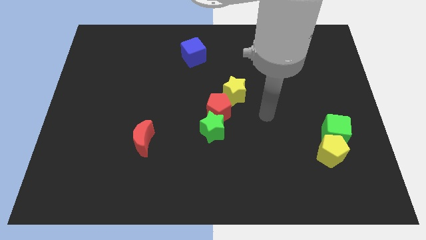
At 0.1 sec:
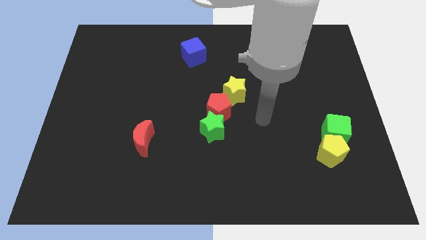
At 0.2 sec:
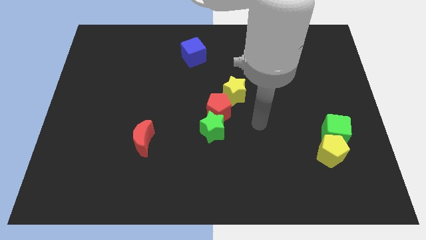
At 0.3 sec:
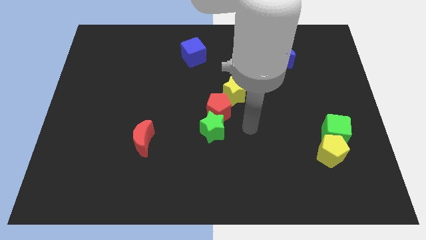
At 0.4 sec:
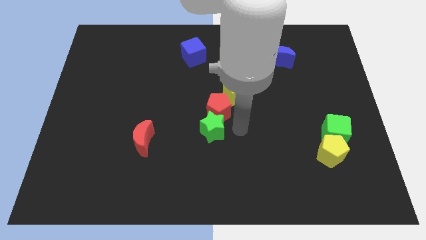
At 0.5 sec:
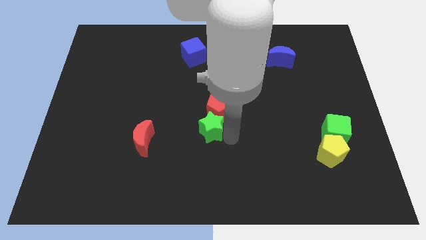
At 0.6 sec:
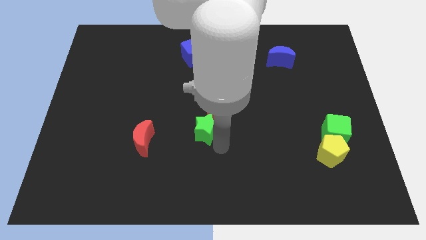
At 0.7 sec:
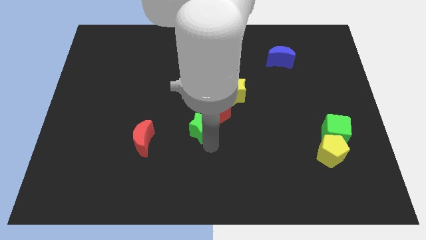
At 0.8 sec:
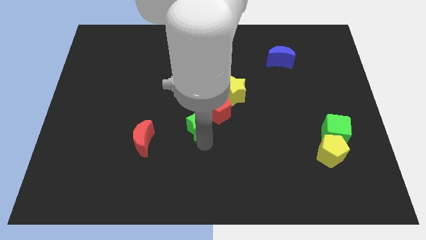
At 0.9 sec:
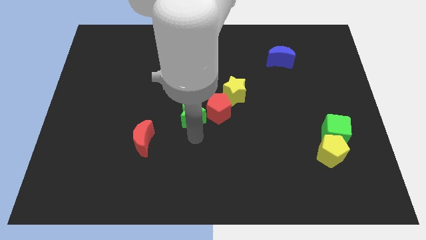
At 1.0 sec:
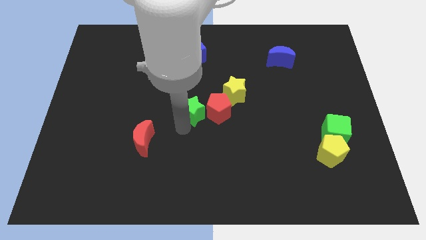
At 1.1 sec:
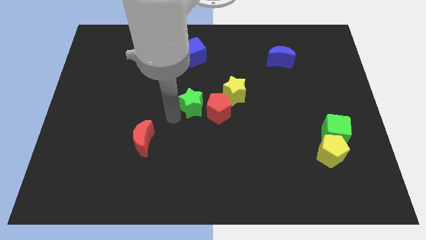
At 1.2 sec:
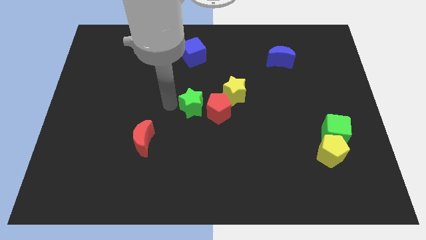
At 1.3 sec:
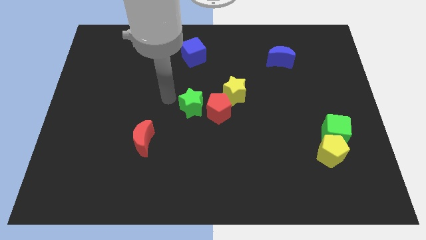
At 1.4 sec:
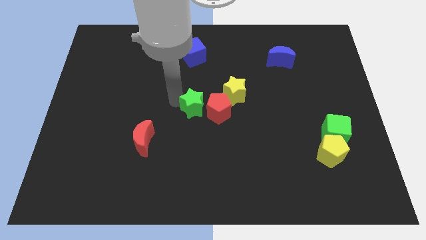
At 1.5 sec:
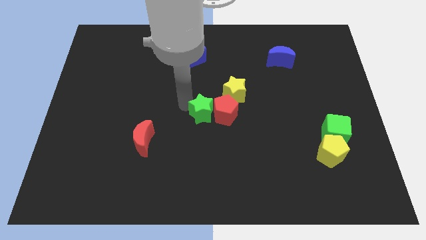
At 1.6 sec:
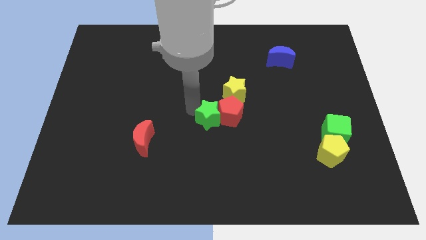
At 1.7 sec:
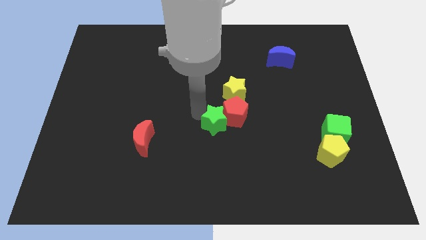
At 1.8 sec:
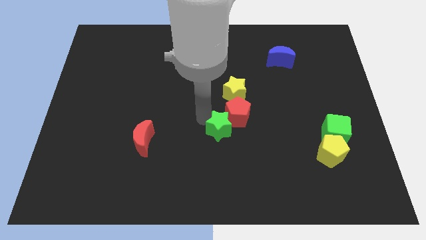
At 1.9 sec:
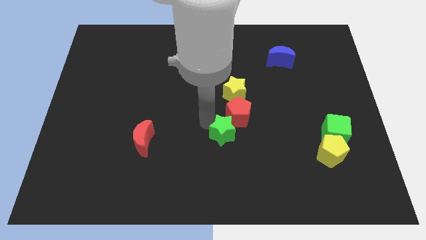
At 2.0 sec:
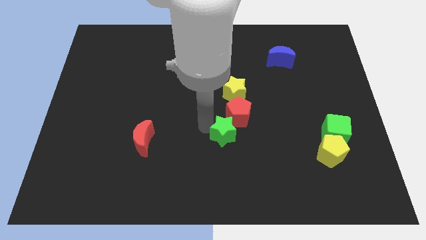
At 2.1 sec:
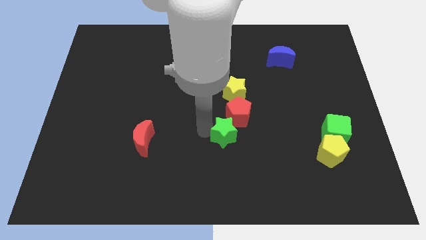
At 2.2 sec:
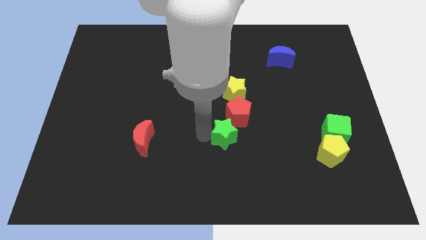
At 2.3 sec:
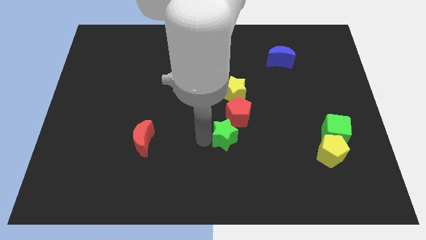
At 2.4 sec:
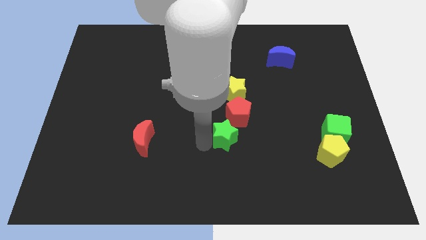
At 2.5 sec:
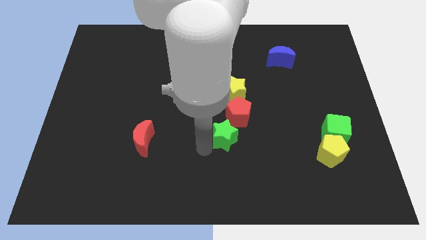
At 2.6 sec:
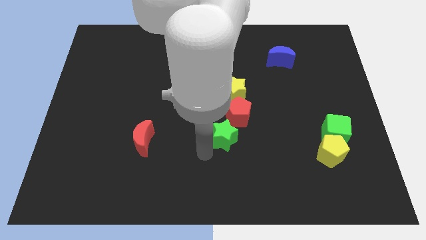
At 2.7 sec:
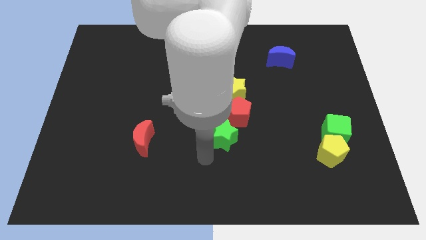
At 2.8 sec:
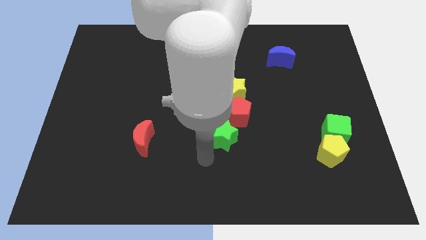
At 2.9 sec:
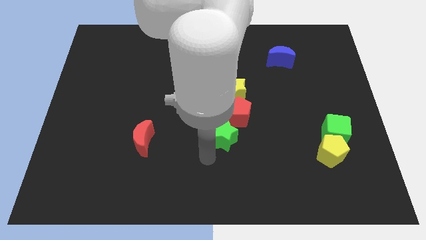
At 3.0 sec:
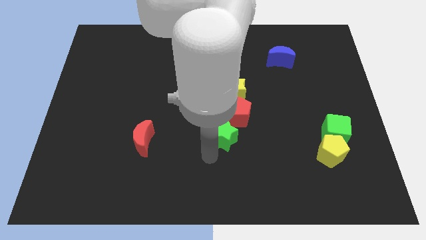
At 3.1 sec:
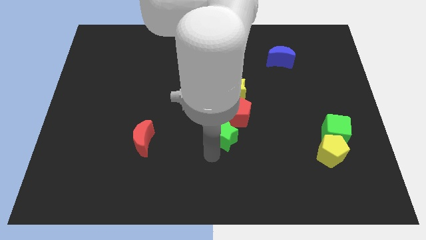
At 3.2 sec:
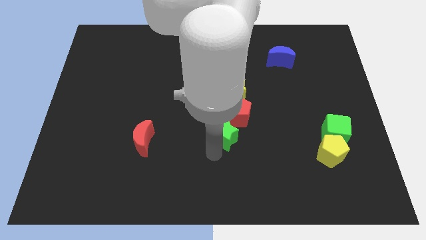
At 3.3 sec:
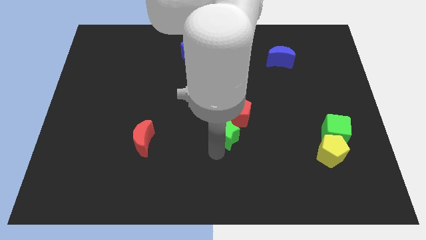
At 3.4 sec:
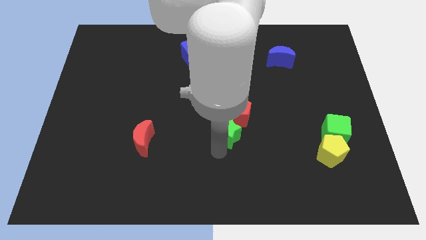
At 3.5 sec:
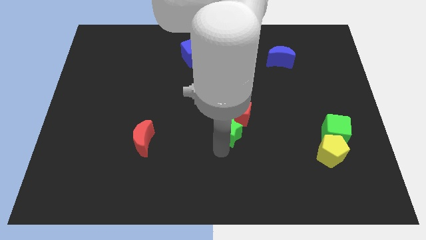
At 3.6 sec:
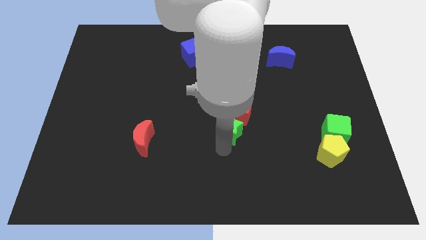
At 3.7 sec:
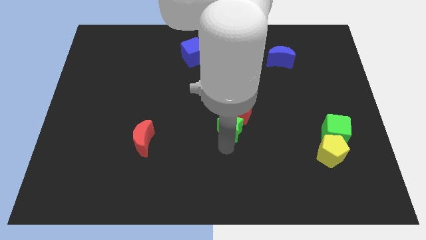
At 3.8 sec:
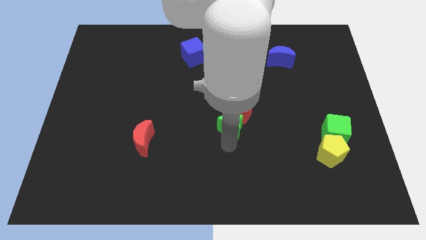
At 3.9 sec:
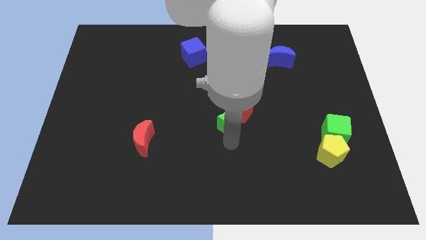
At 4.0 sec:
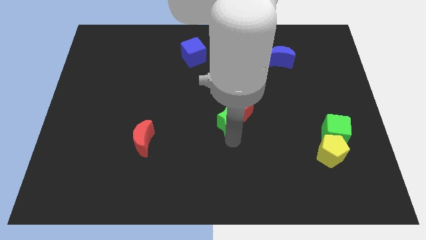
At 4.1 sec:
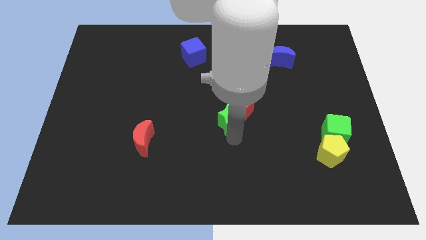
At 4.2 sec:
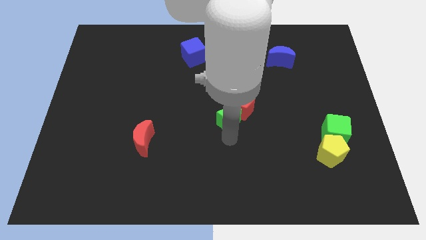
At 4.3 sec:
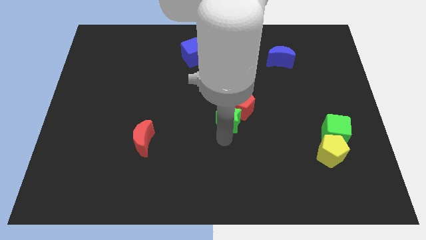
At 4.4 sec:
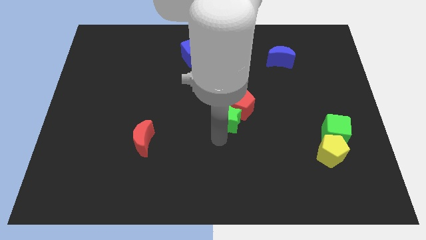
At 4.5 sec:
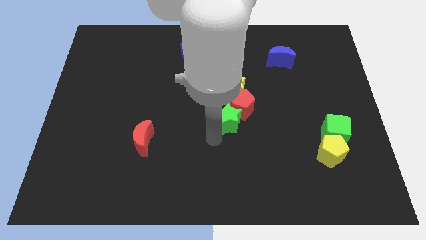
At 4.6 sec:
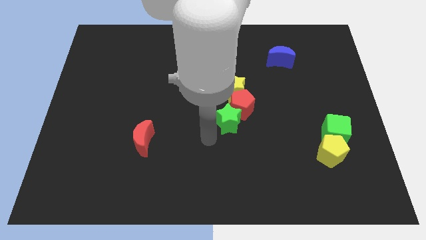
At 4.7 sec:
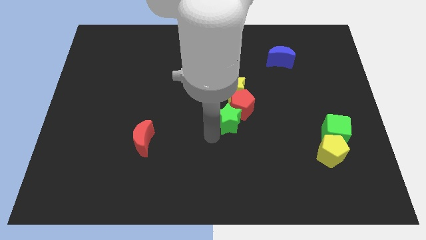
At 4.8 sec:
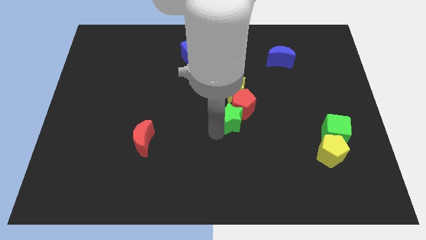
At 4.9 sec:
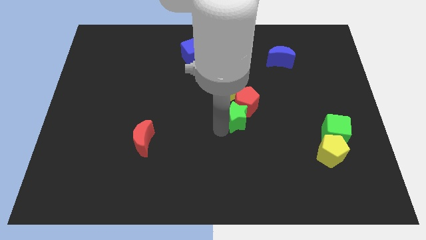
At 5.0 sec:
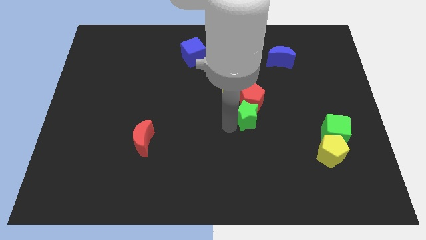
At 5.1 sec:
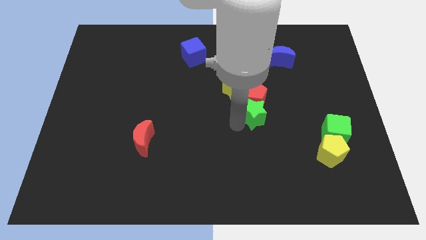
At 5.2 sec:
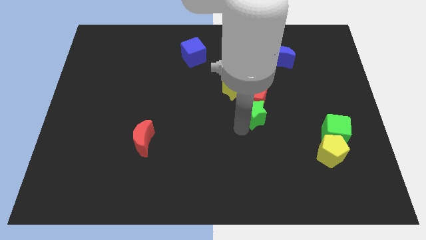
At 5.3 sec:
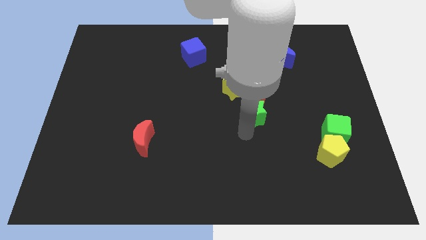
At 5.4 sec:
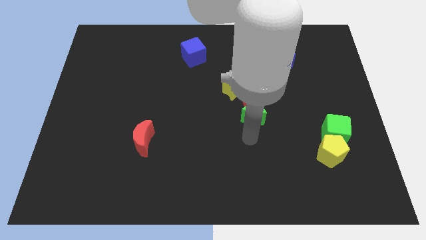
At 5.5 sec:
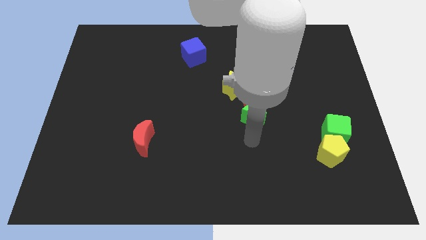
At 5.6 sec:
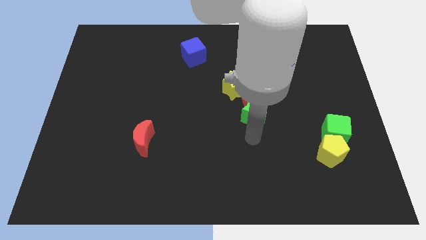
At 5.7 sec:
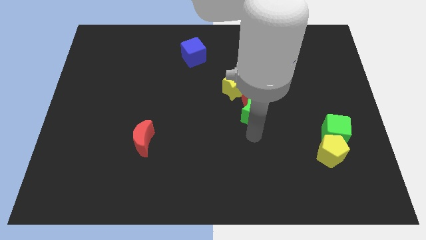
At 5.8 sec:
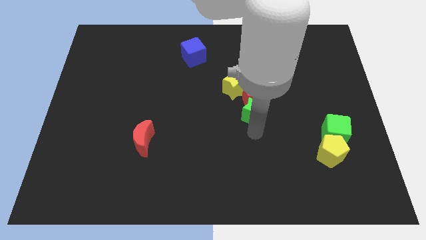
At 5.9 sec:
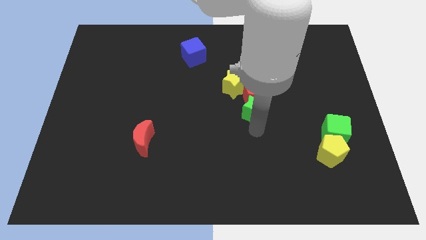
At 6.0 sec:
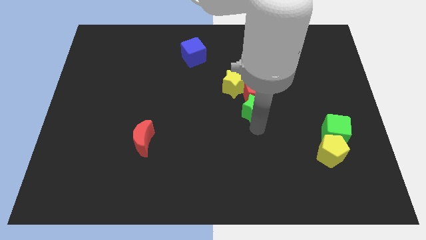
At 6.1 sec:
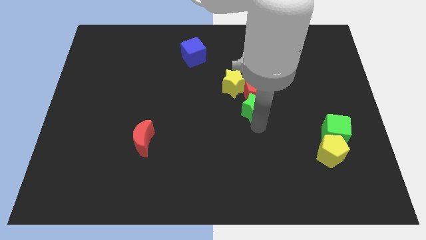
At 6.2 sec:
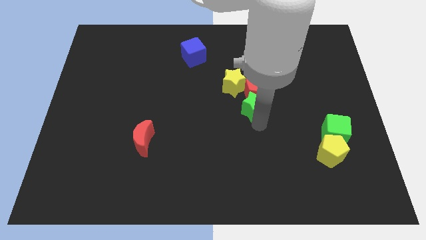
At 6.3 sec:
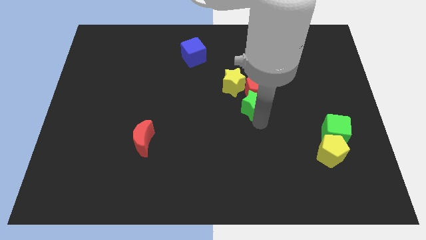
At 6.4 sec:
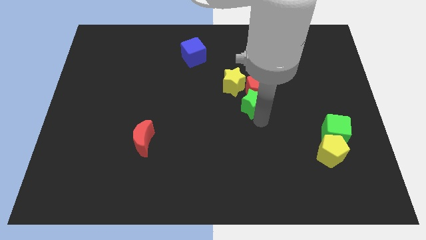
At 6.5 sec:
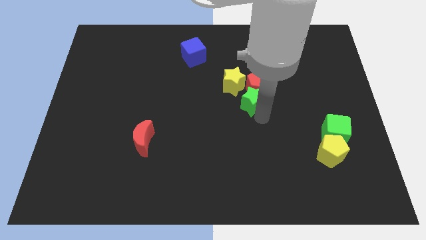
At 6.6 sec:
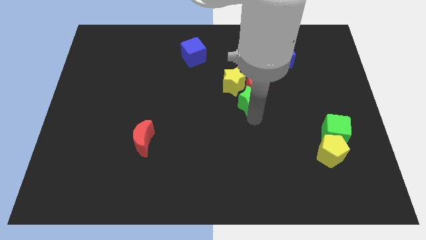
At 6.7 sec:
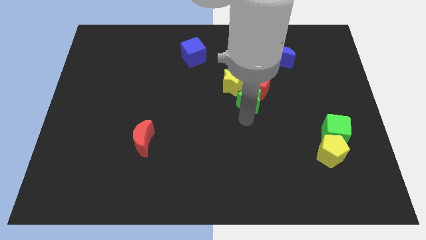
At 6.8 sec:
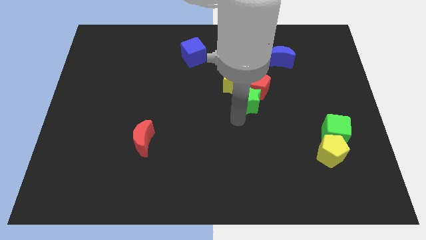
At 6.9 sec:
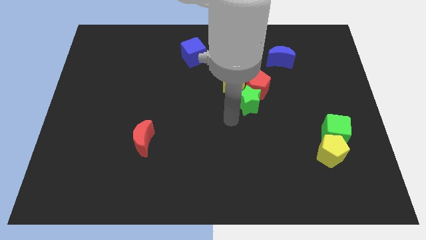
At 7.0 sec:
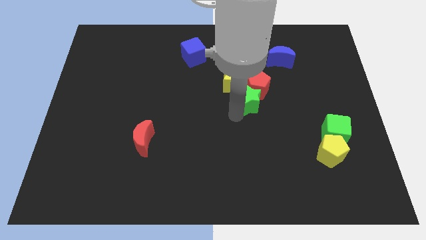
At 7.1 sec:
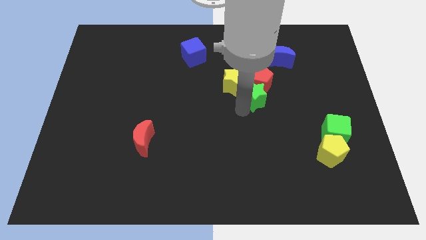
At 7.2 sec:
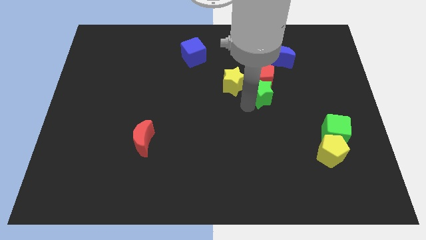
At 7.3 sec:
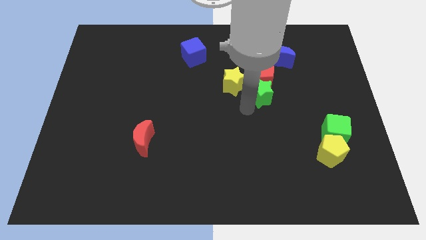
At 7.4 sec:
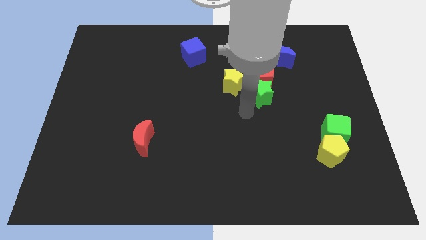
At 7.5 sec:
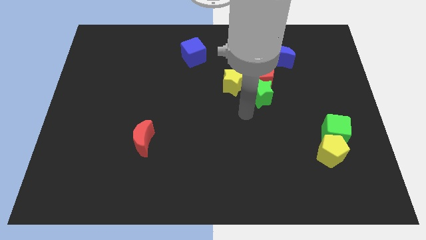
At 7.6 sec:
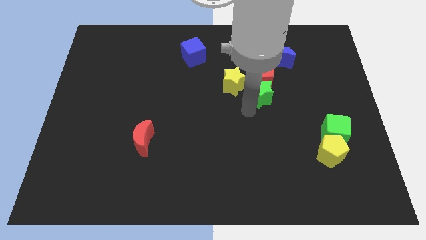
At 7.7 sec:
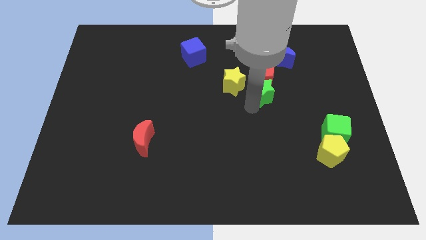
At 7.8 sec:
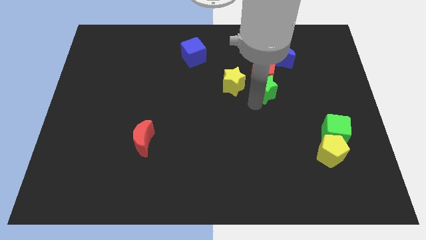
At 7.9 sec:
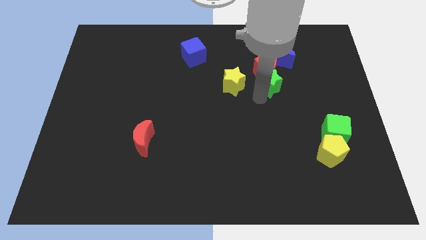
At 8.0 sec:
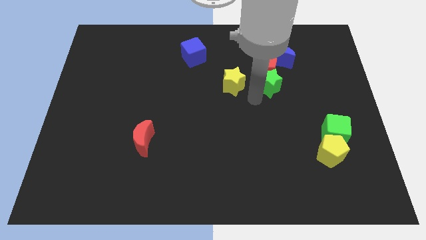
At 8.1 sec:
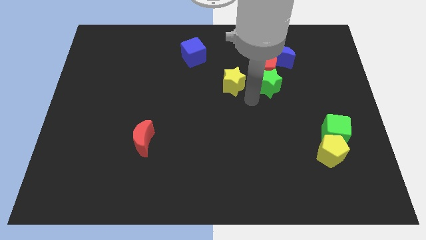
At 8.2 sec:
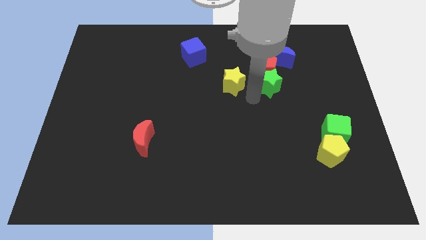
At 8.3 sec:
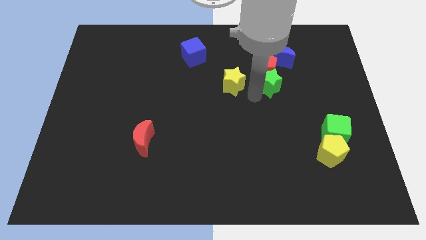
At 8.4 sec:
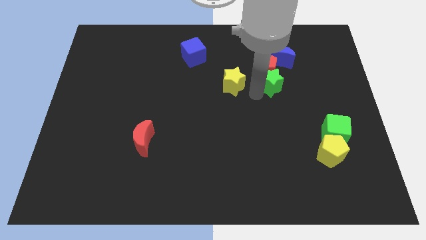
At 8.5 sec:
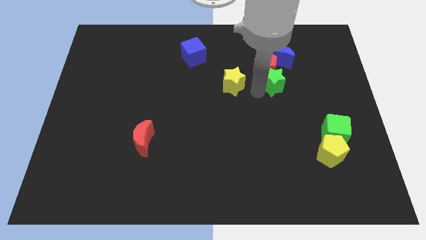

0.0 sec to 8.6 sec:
slide the green star up and to the right diagonally
